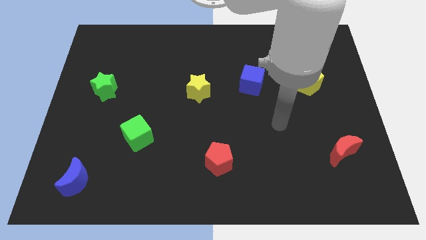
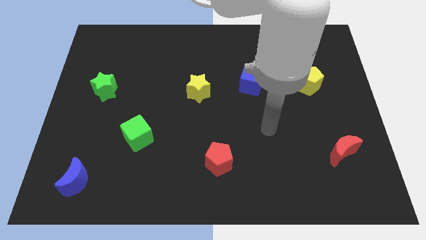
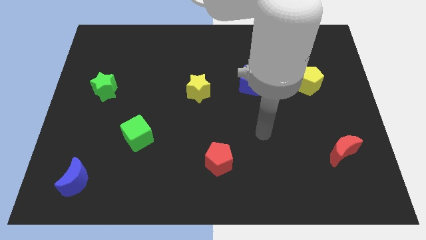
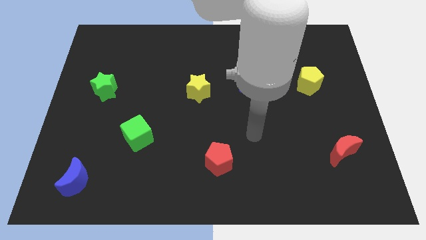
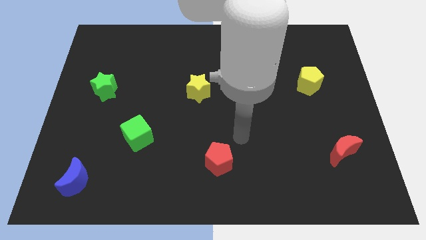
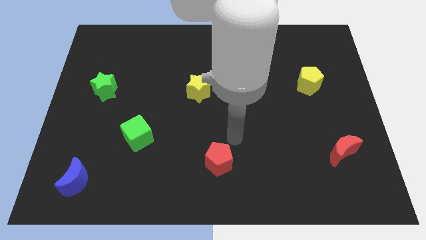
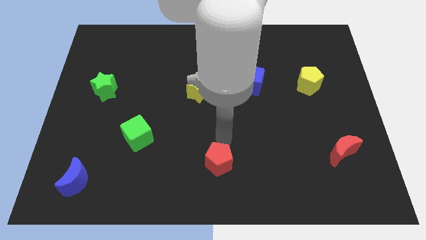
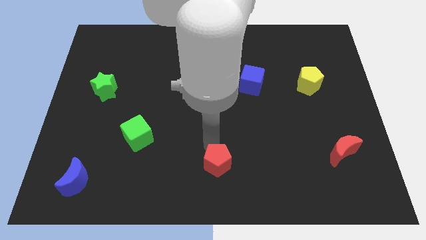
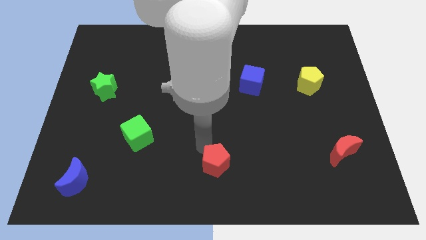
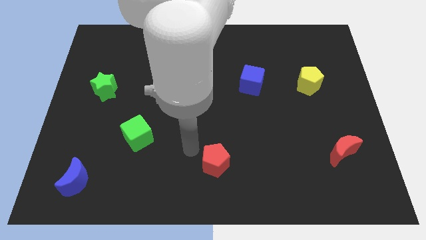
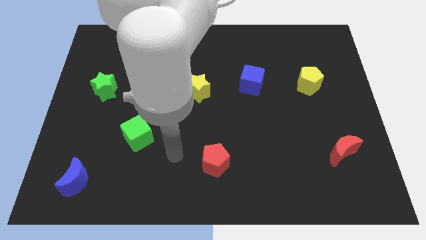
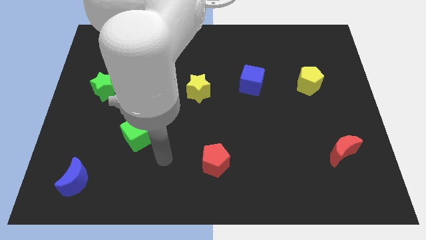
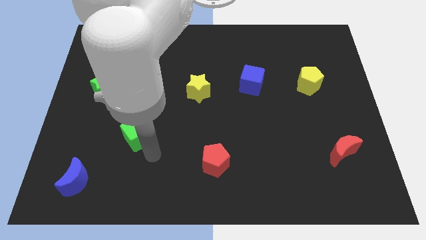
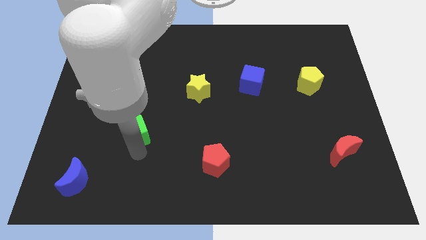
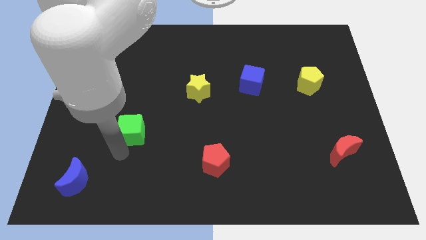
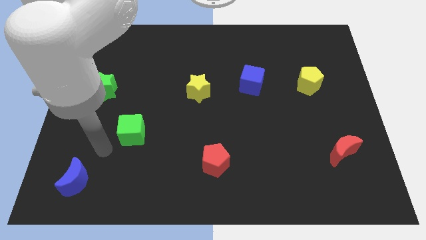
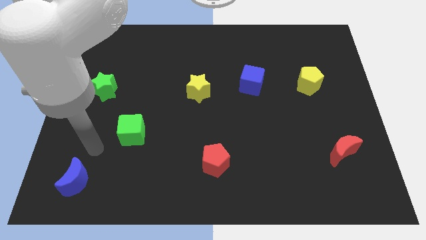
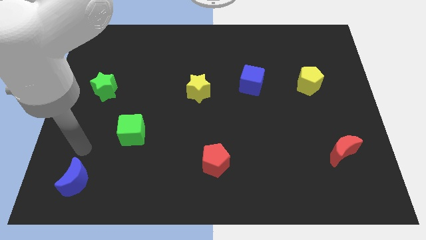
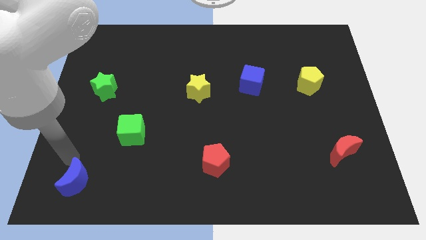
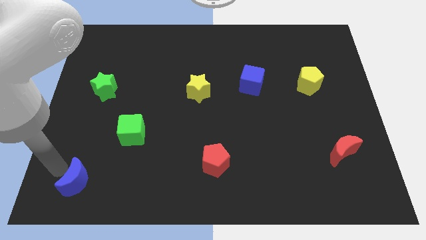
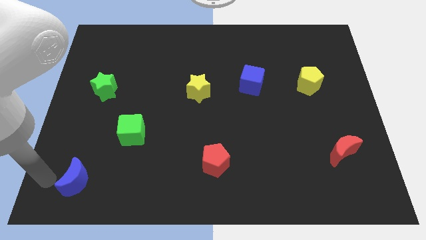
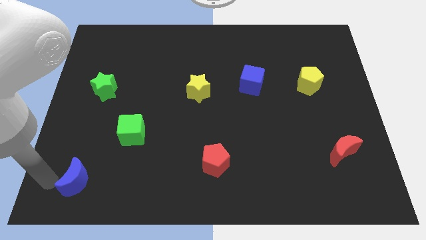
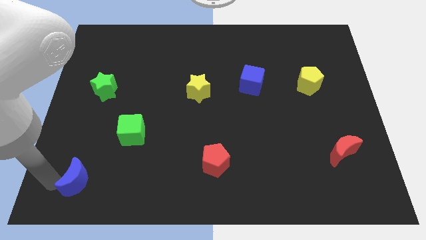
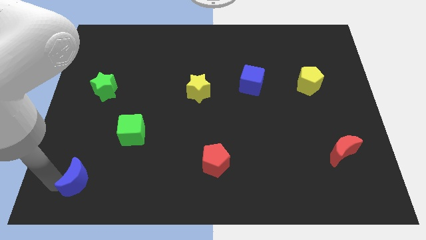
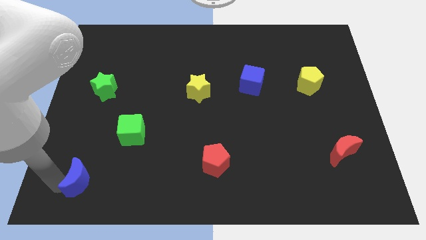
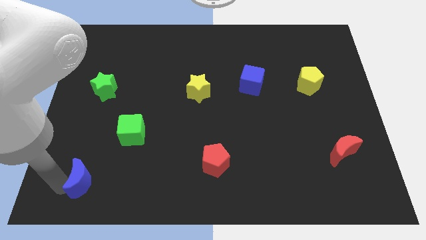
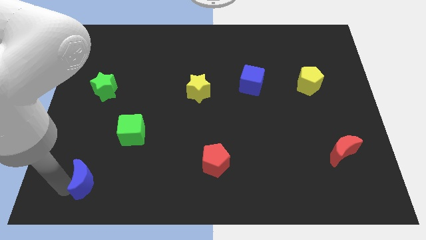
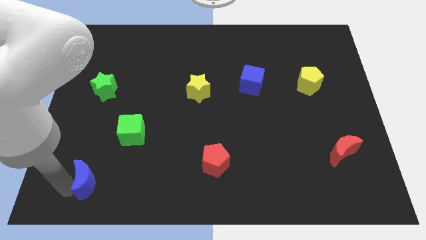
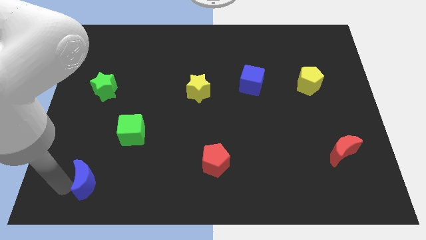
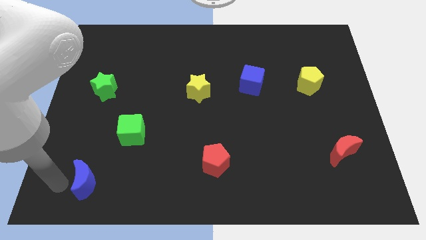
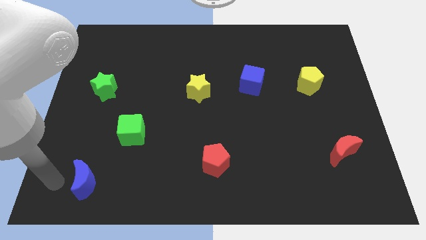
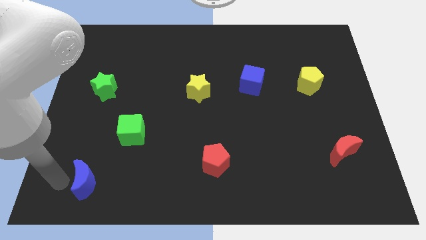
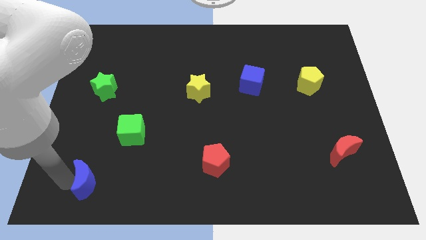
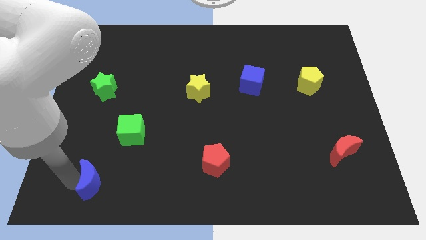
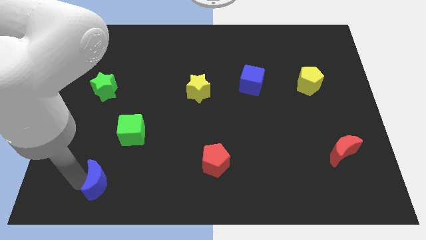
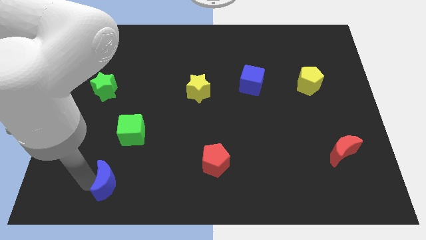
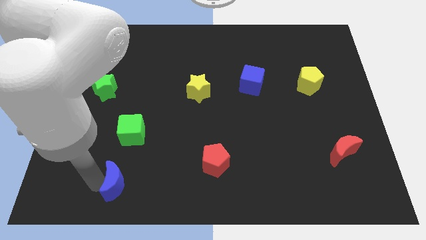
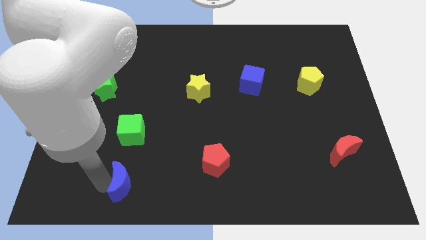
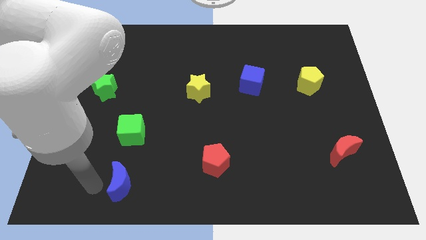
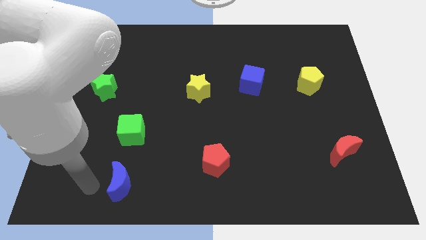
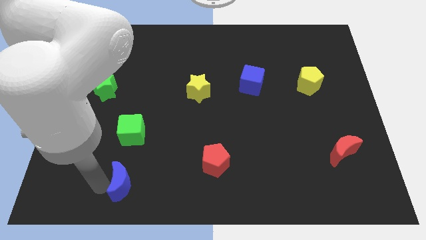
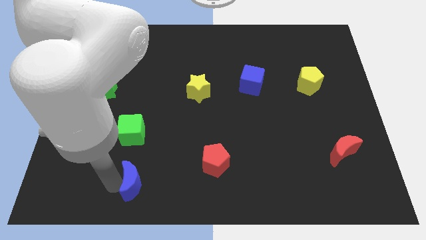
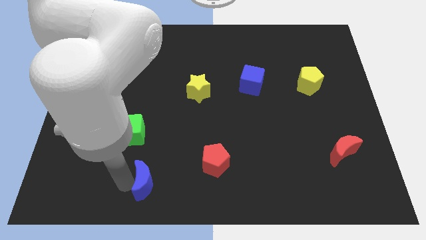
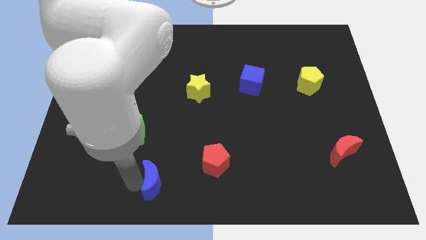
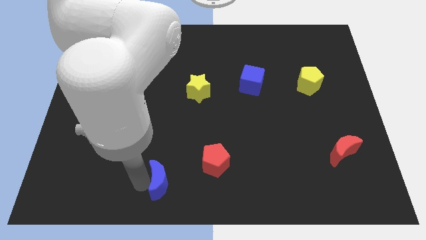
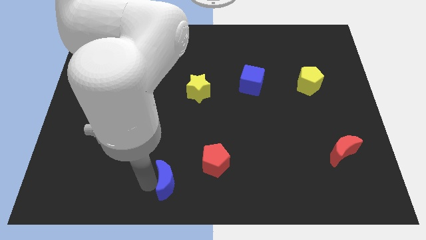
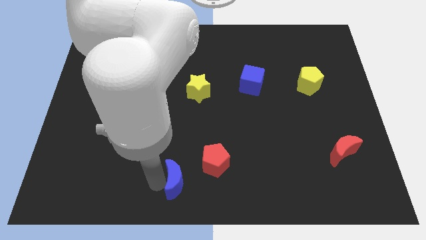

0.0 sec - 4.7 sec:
slide the blue moon right

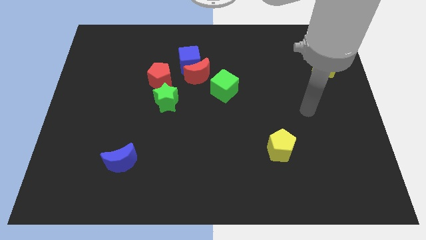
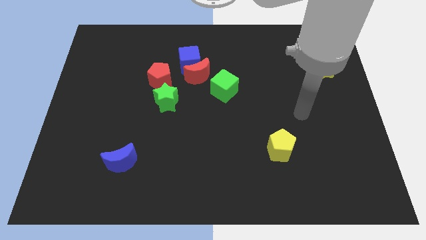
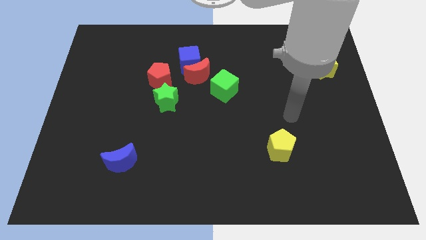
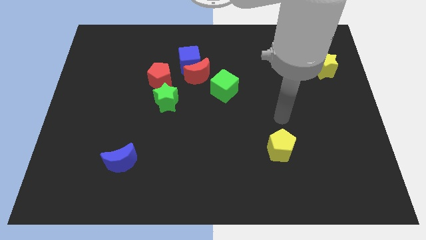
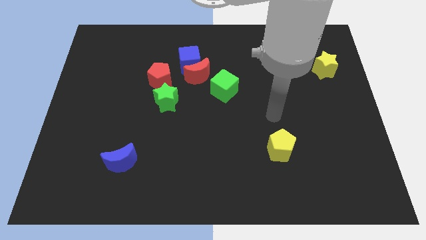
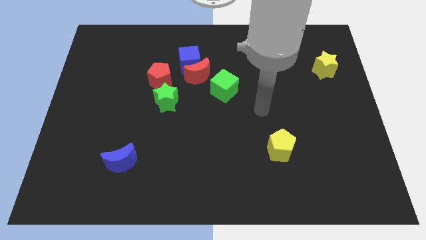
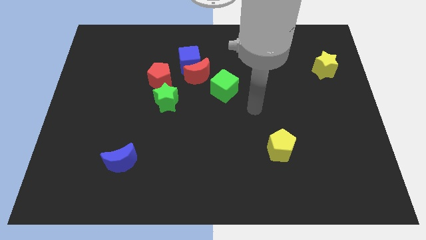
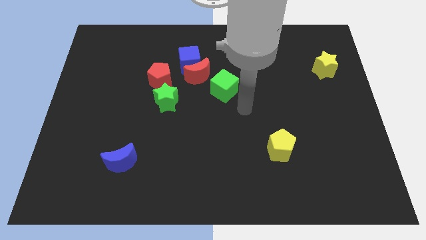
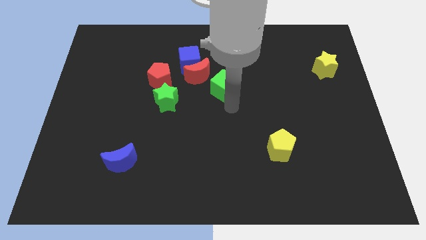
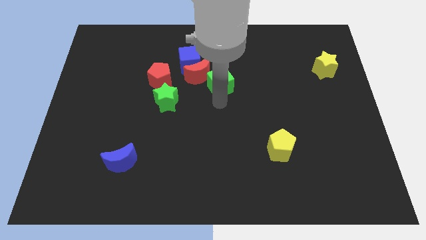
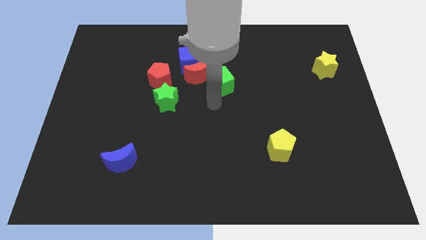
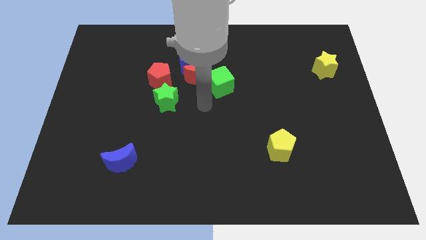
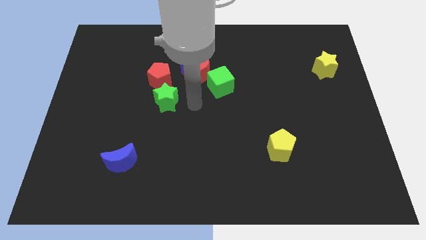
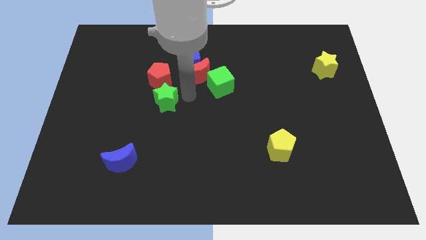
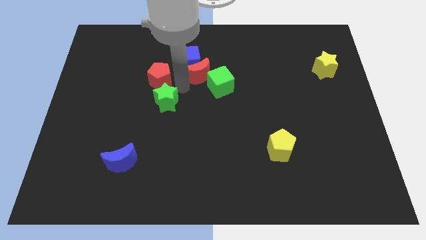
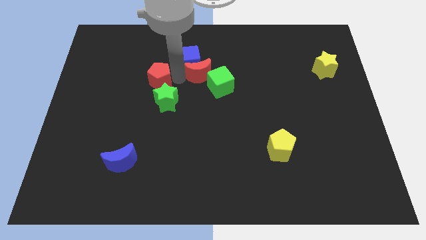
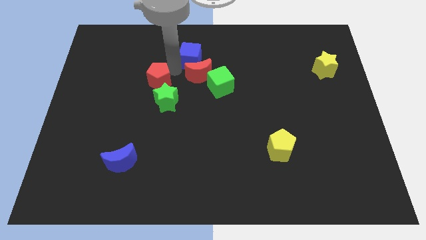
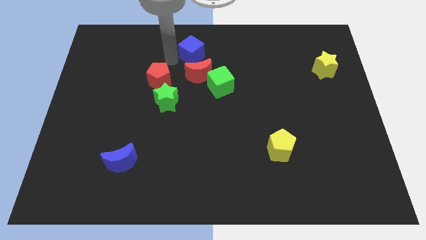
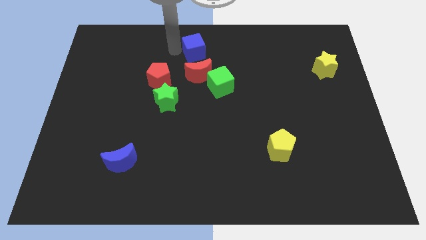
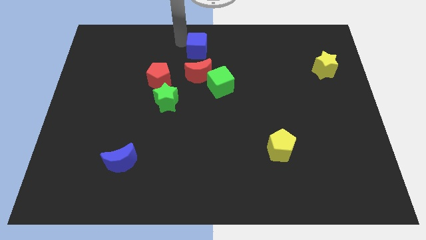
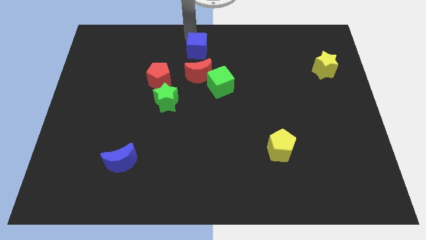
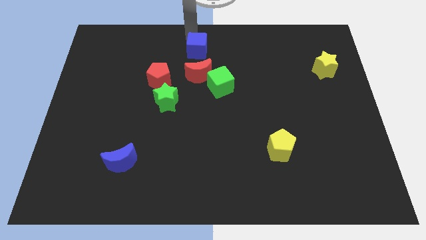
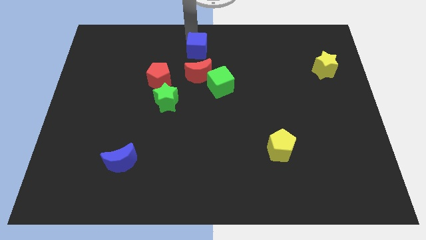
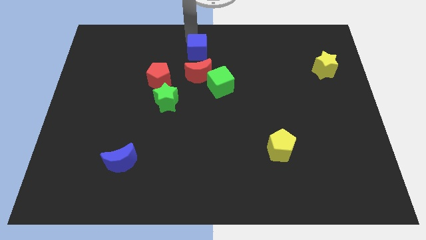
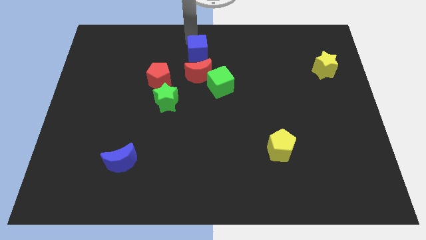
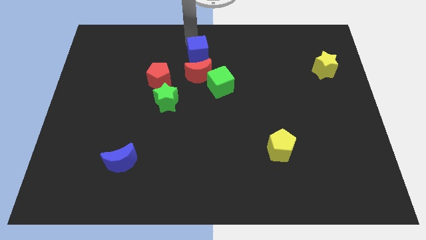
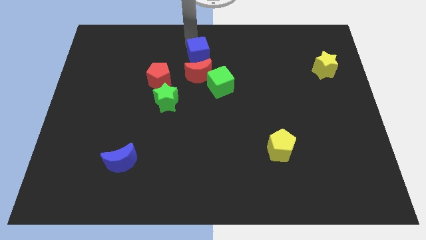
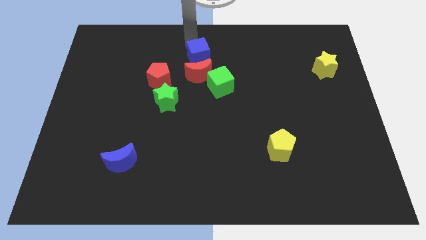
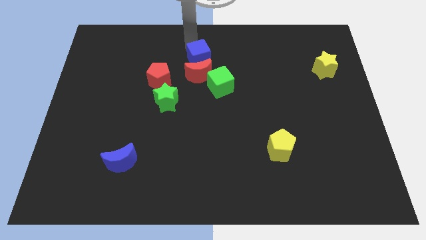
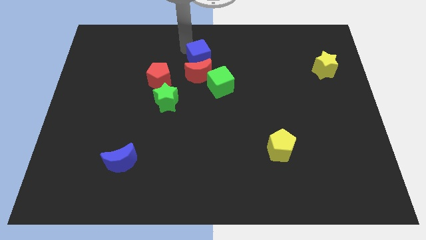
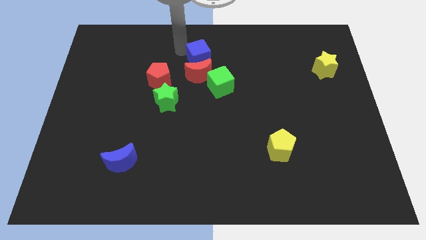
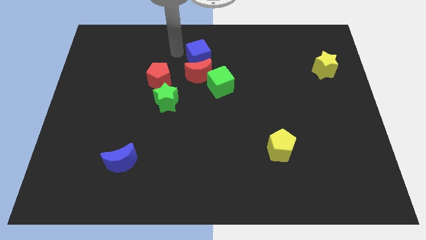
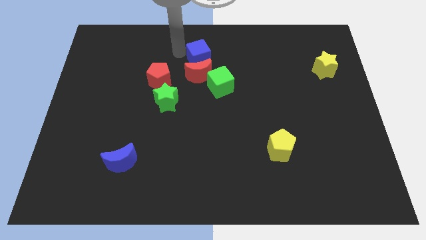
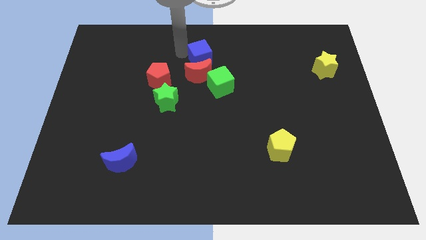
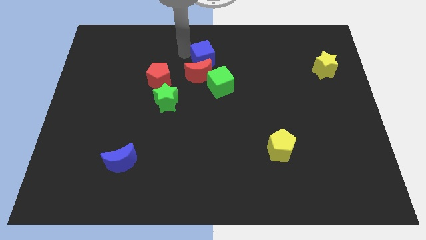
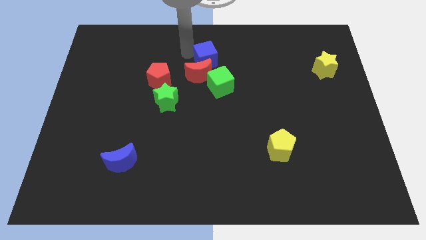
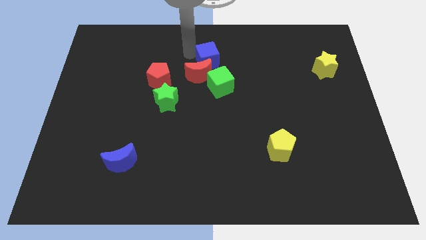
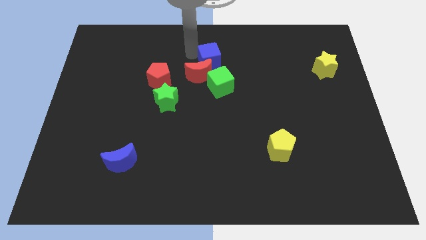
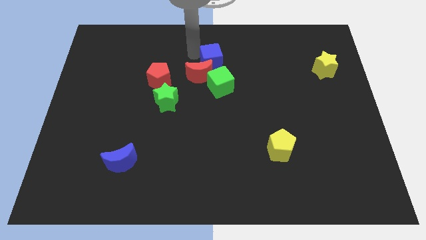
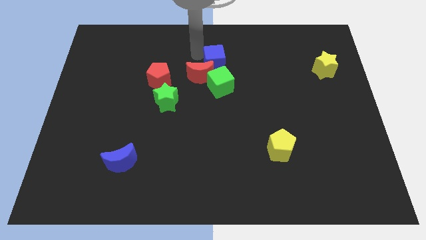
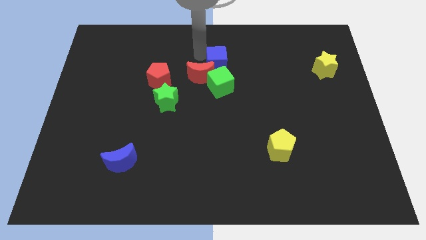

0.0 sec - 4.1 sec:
slide the blue cube somewhat to the right
